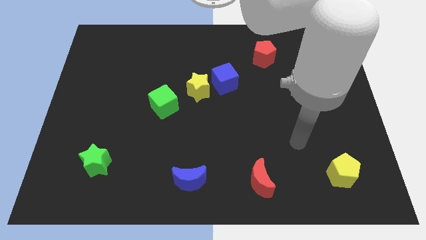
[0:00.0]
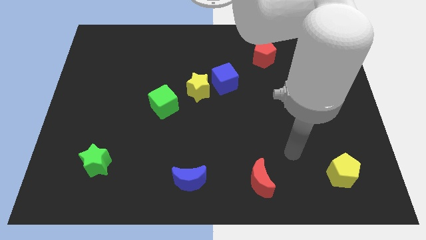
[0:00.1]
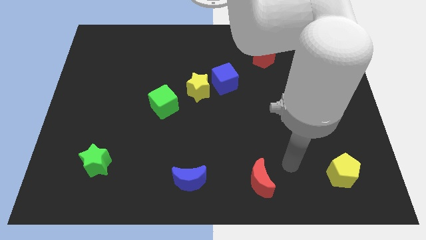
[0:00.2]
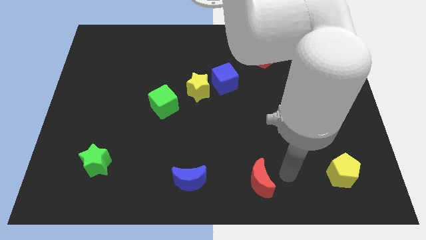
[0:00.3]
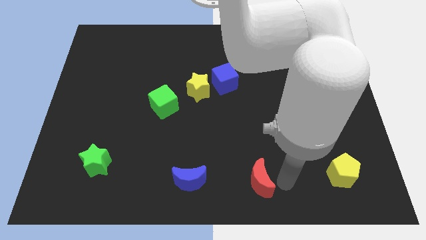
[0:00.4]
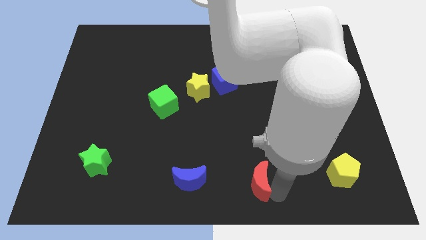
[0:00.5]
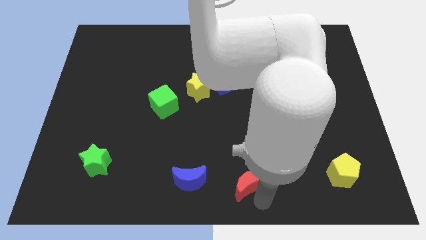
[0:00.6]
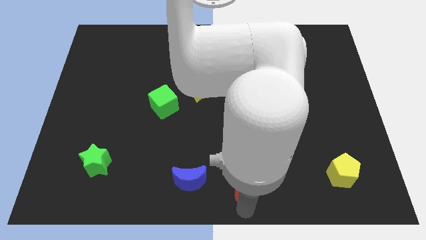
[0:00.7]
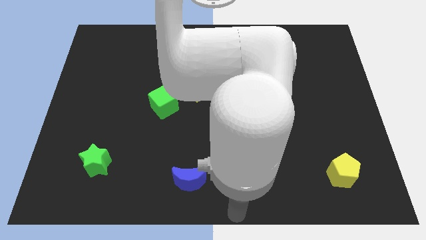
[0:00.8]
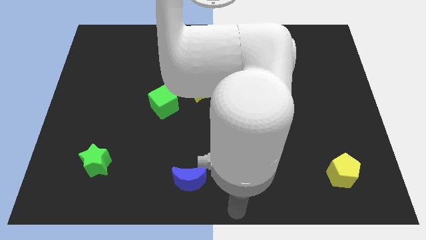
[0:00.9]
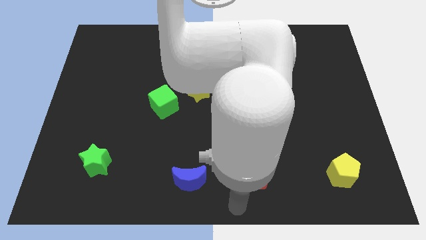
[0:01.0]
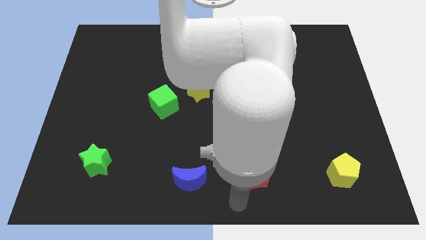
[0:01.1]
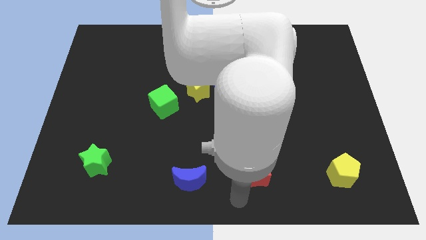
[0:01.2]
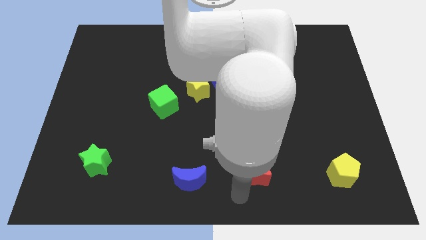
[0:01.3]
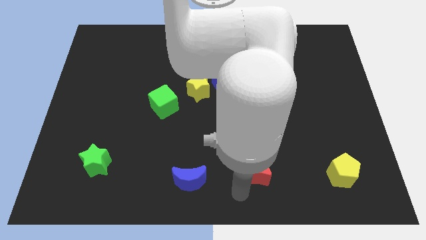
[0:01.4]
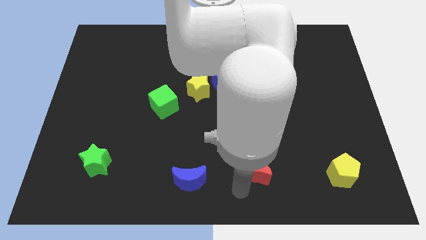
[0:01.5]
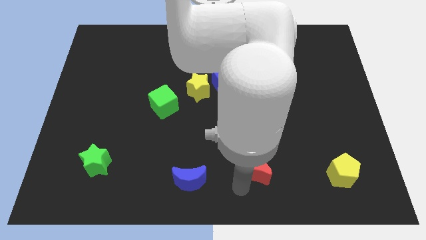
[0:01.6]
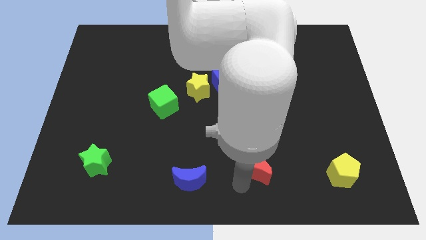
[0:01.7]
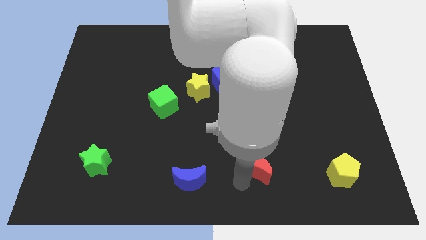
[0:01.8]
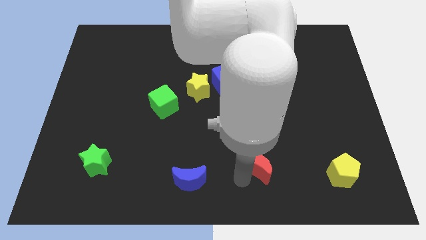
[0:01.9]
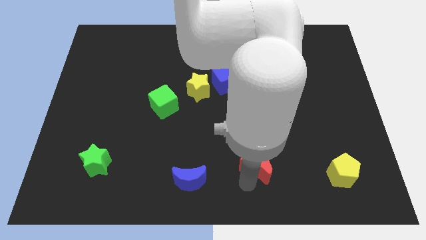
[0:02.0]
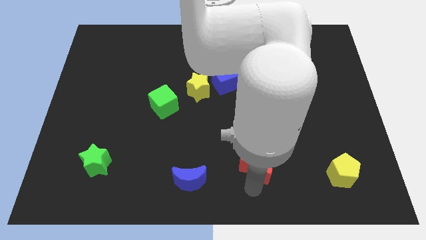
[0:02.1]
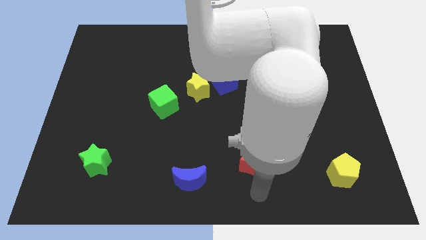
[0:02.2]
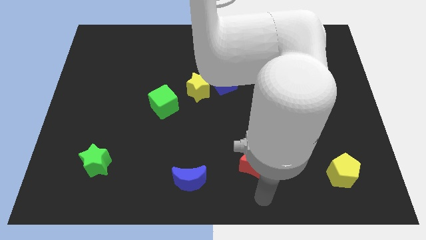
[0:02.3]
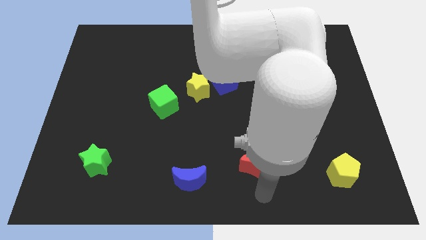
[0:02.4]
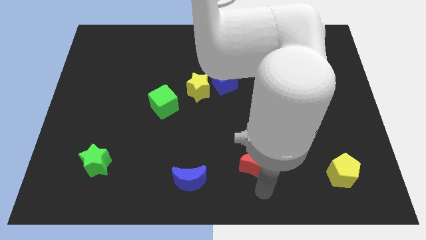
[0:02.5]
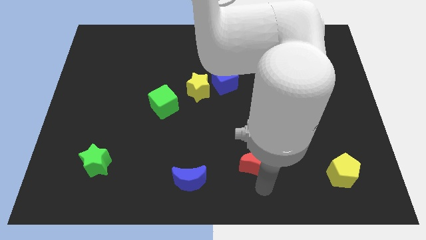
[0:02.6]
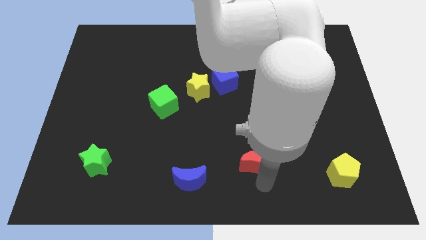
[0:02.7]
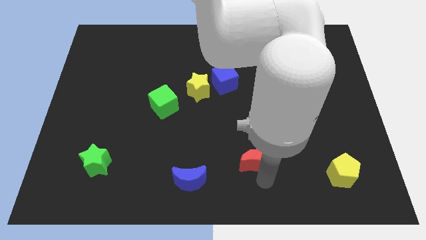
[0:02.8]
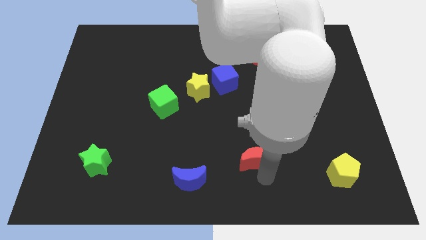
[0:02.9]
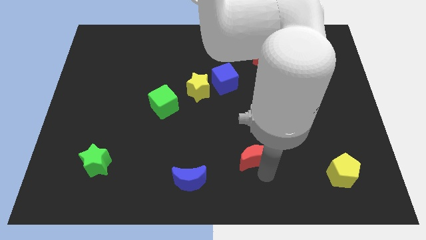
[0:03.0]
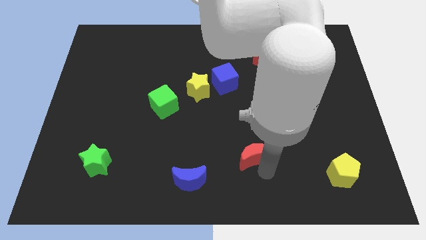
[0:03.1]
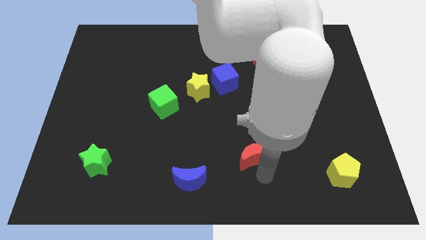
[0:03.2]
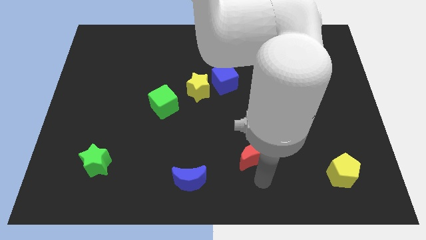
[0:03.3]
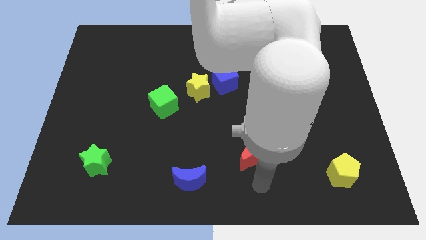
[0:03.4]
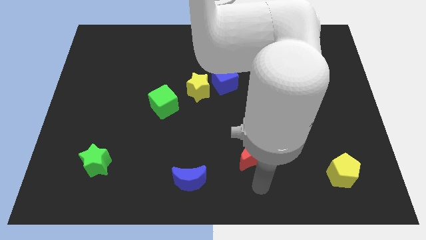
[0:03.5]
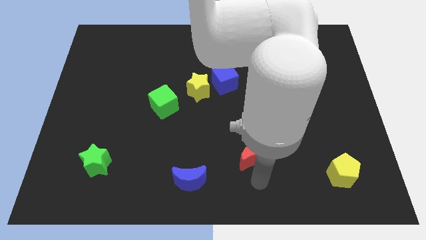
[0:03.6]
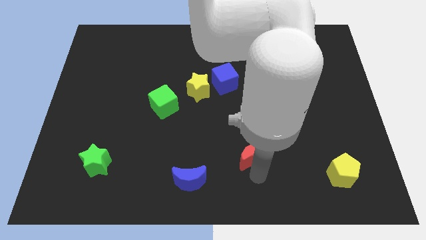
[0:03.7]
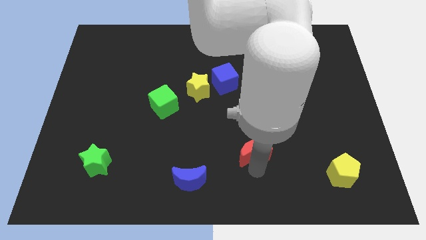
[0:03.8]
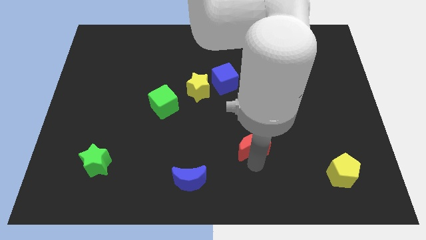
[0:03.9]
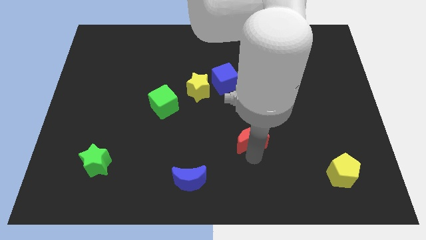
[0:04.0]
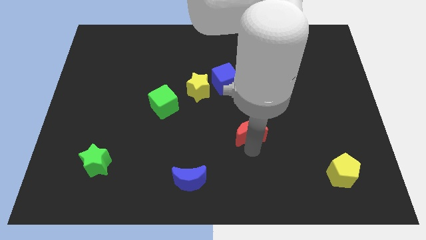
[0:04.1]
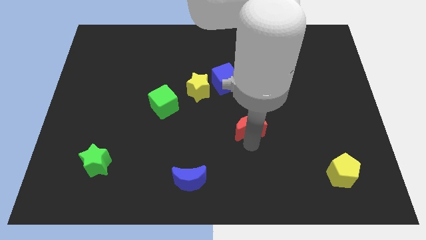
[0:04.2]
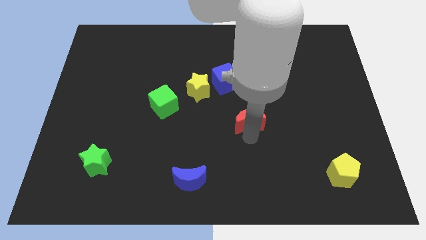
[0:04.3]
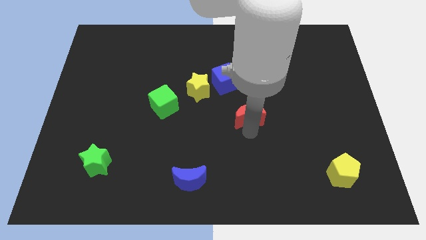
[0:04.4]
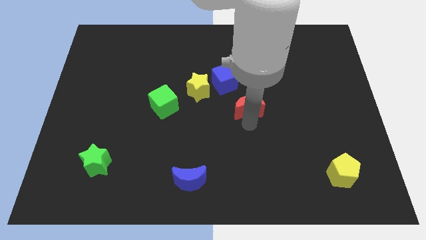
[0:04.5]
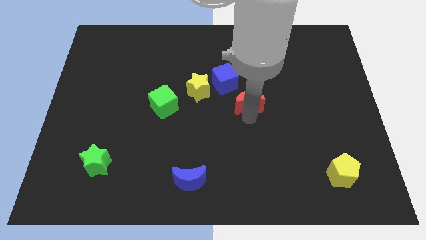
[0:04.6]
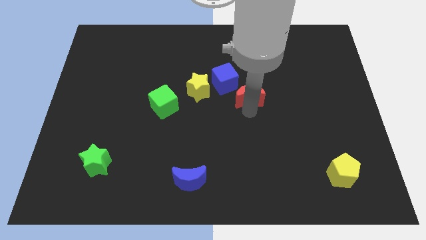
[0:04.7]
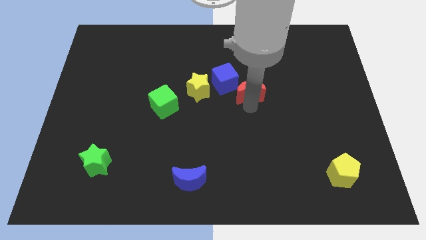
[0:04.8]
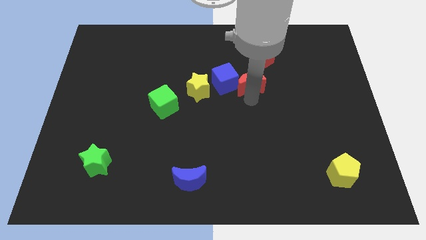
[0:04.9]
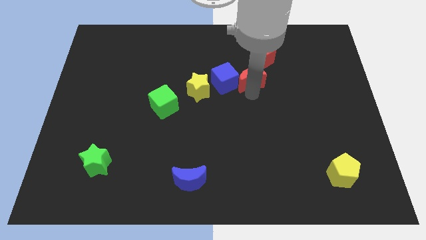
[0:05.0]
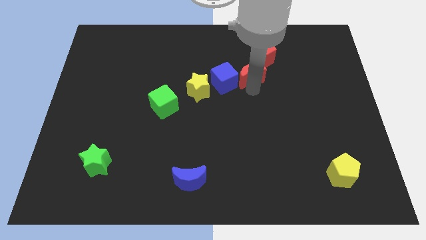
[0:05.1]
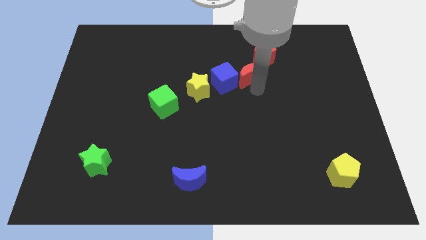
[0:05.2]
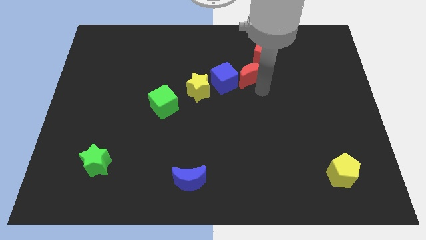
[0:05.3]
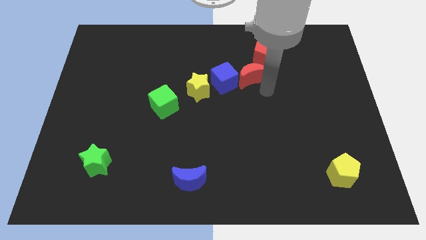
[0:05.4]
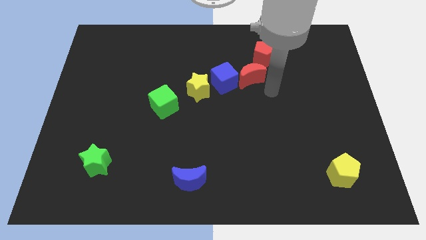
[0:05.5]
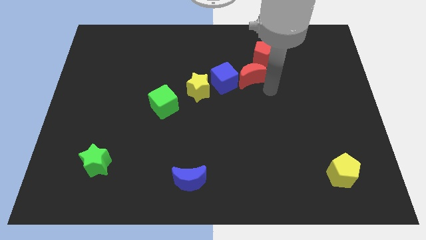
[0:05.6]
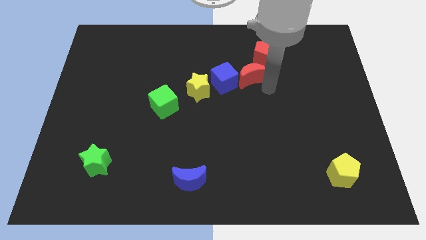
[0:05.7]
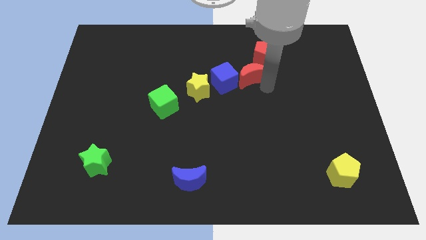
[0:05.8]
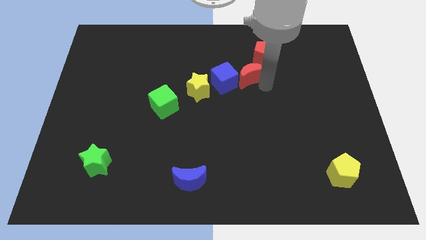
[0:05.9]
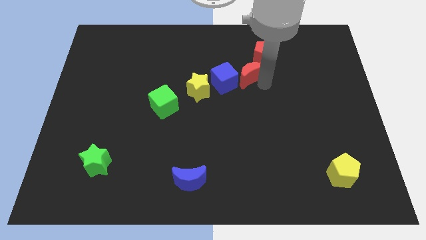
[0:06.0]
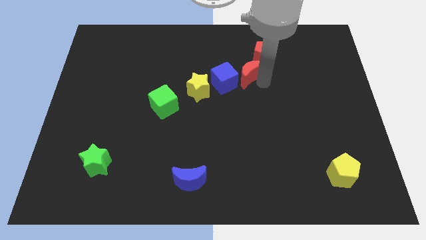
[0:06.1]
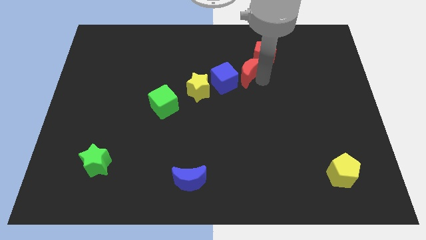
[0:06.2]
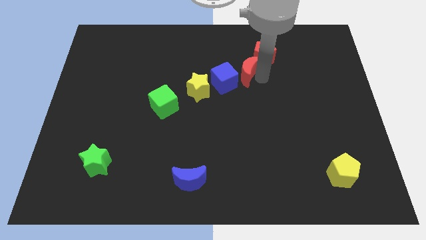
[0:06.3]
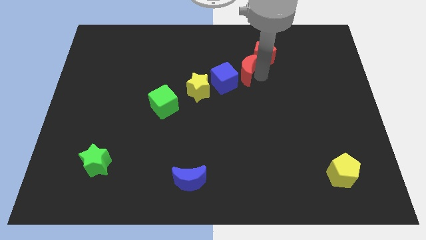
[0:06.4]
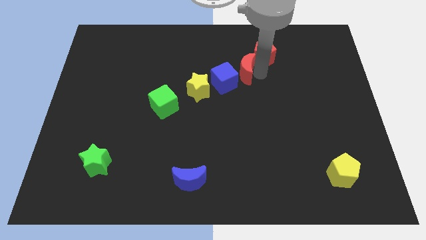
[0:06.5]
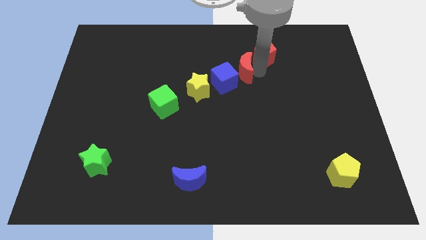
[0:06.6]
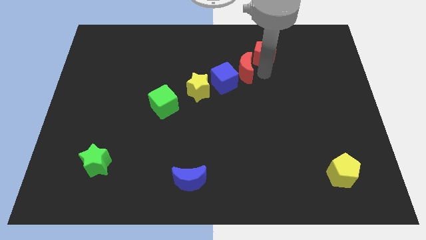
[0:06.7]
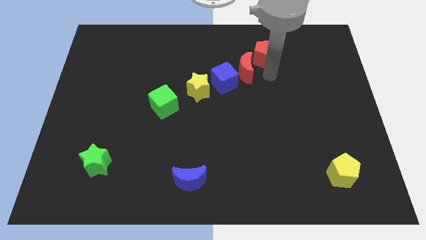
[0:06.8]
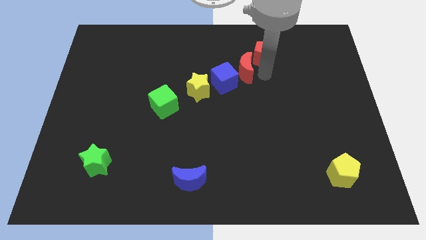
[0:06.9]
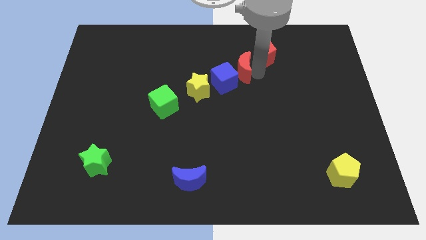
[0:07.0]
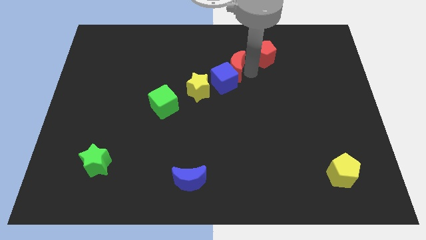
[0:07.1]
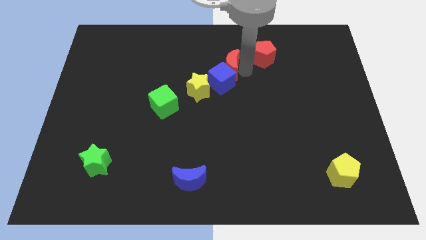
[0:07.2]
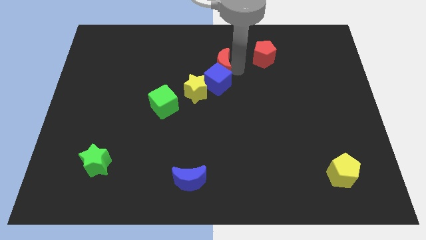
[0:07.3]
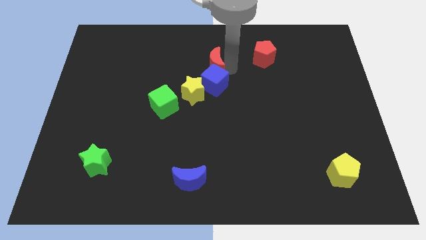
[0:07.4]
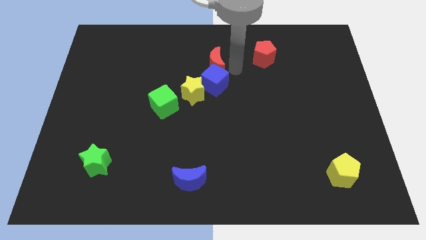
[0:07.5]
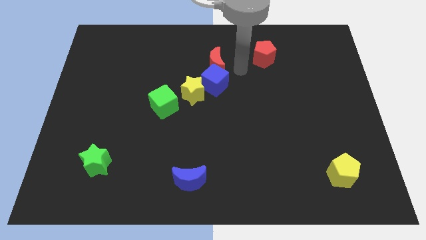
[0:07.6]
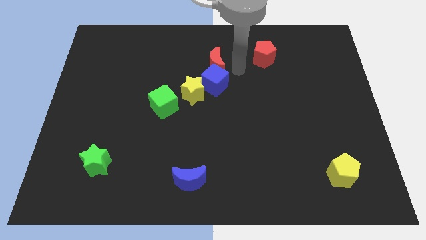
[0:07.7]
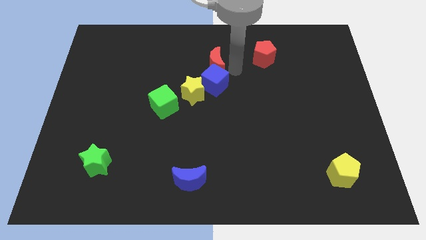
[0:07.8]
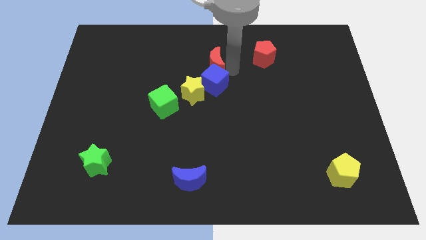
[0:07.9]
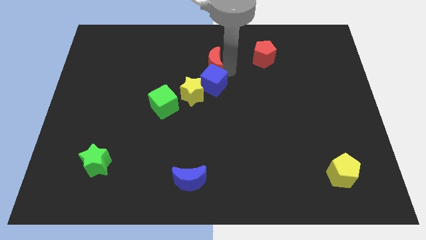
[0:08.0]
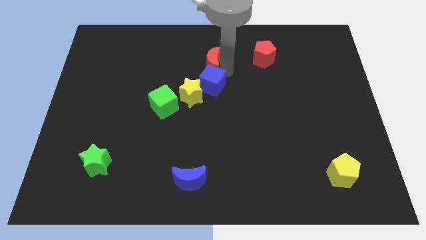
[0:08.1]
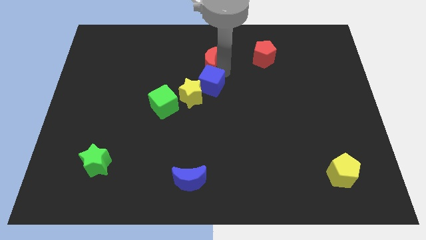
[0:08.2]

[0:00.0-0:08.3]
push the red moon to the top side of the yellow star
